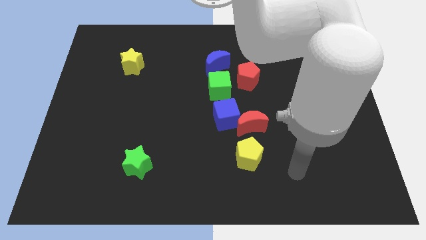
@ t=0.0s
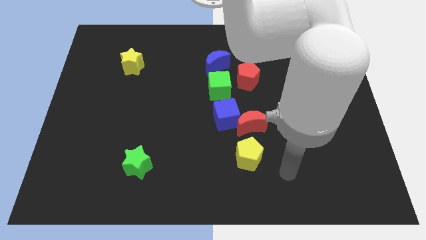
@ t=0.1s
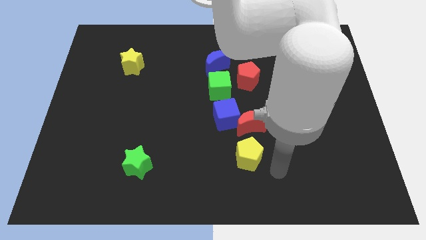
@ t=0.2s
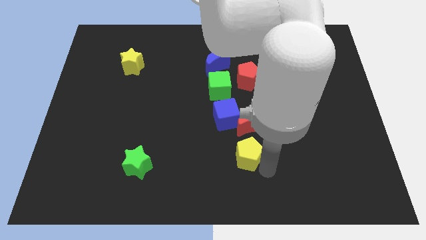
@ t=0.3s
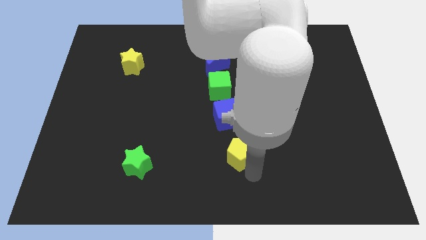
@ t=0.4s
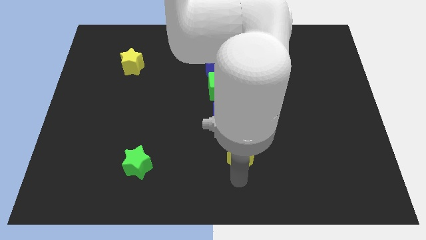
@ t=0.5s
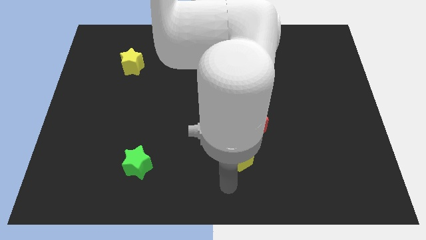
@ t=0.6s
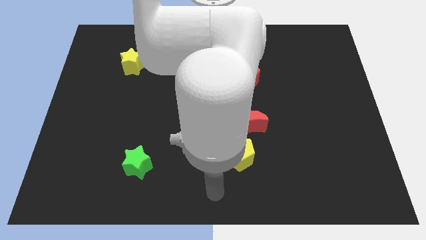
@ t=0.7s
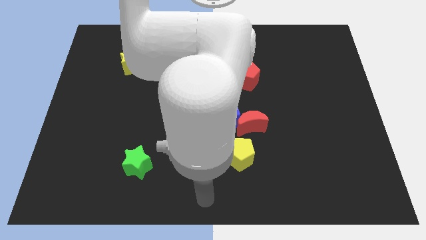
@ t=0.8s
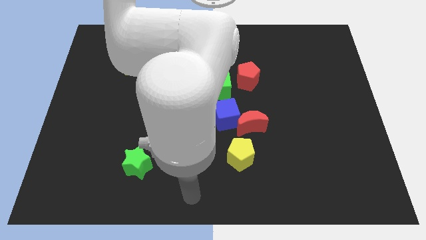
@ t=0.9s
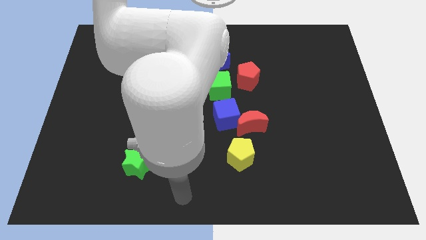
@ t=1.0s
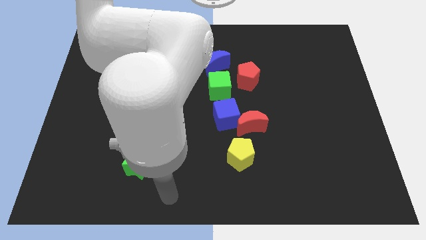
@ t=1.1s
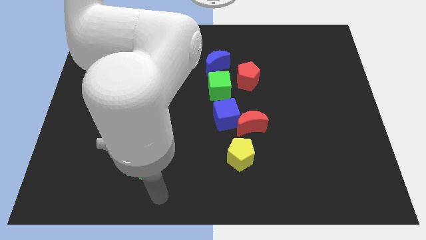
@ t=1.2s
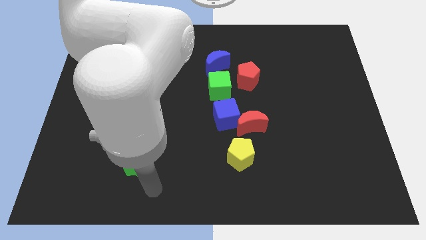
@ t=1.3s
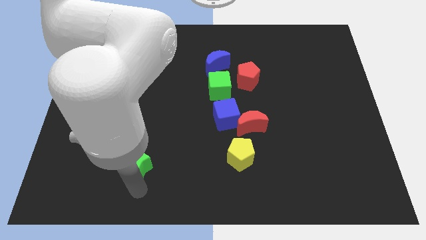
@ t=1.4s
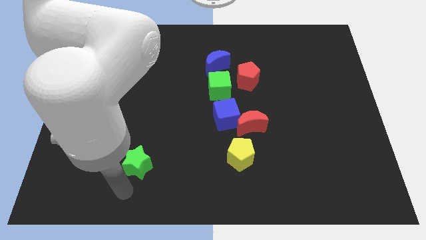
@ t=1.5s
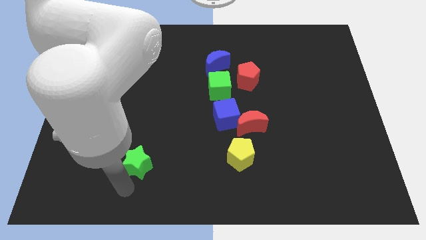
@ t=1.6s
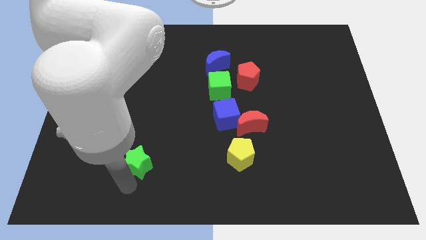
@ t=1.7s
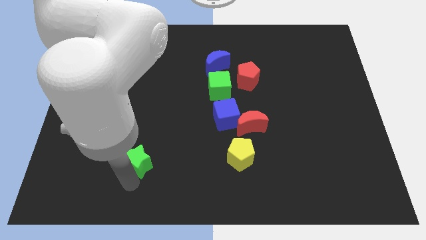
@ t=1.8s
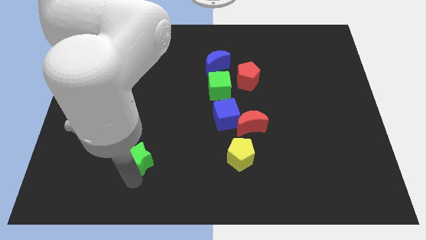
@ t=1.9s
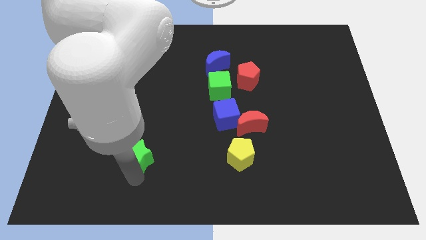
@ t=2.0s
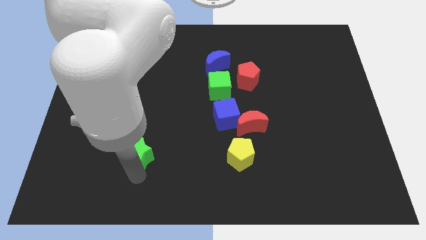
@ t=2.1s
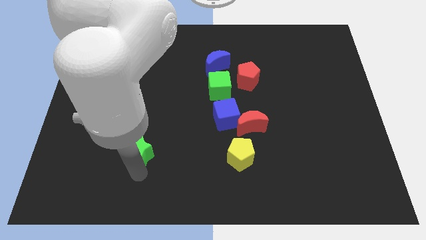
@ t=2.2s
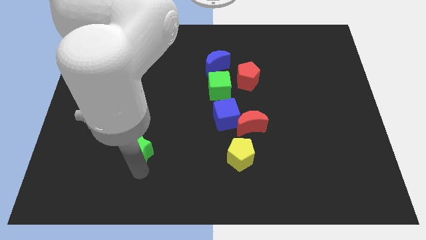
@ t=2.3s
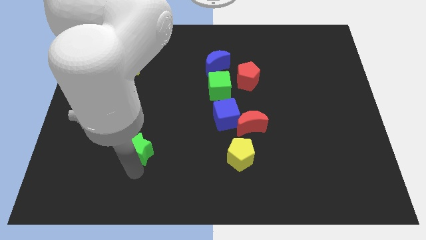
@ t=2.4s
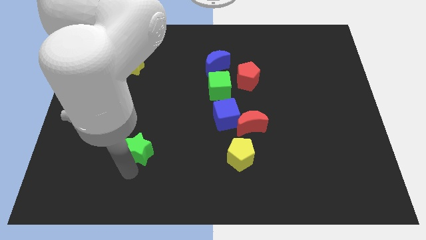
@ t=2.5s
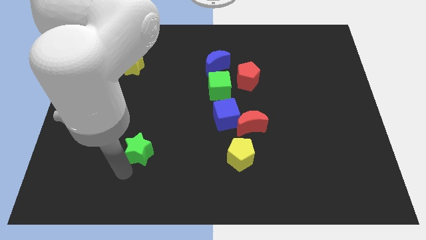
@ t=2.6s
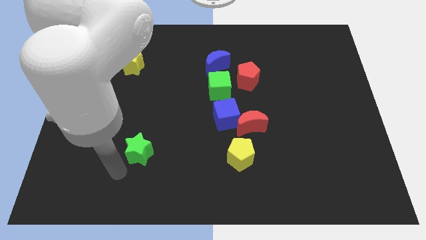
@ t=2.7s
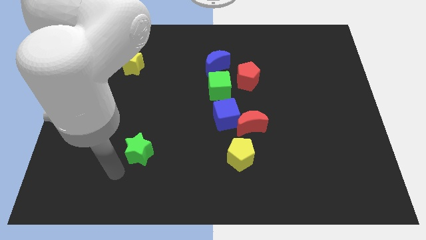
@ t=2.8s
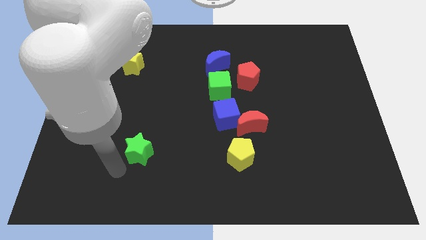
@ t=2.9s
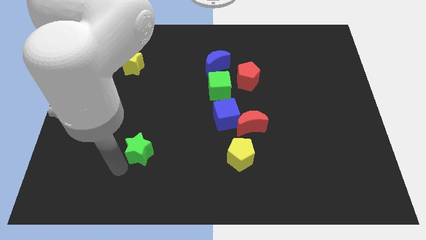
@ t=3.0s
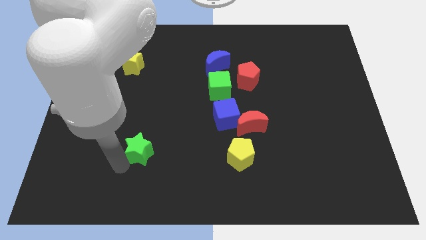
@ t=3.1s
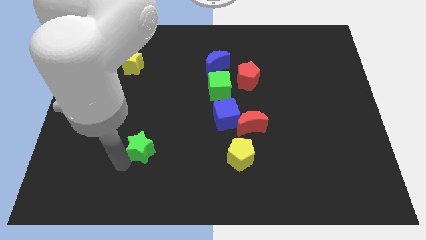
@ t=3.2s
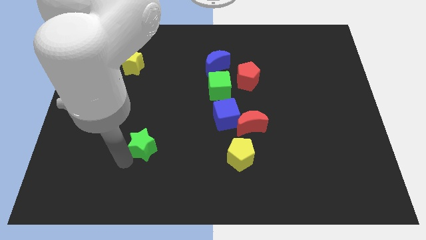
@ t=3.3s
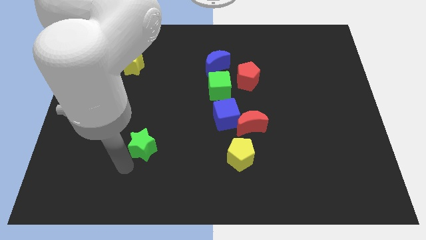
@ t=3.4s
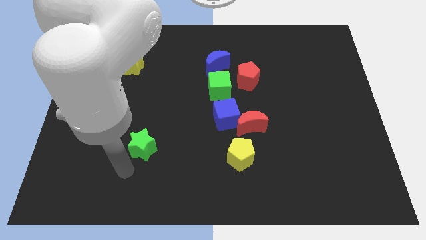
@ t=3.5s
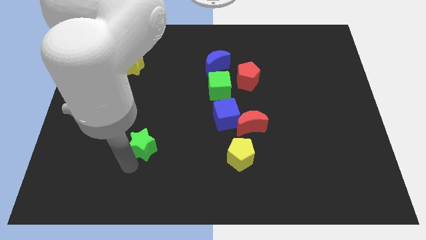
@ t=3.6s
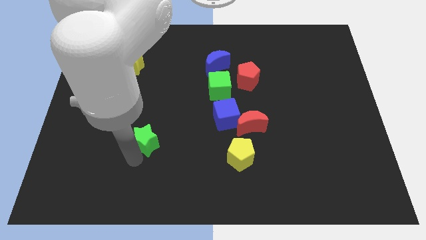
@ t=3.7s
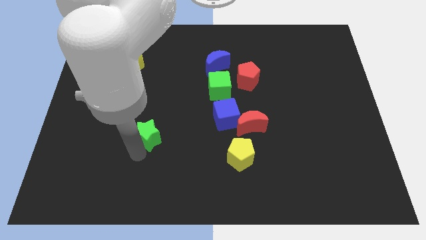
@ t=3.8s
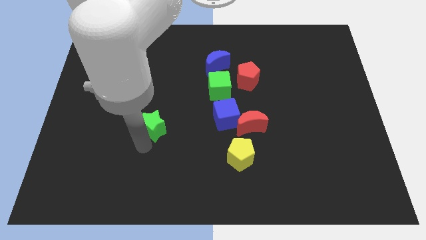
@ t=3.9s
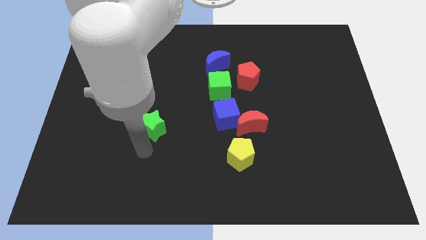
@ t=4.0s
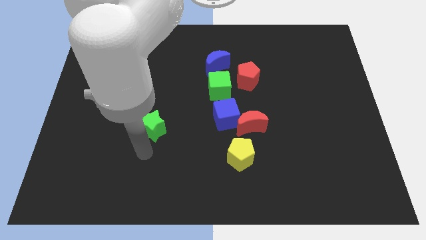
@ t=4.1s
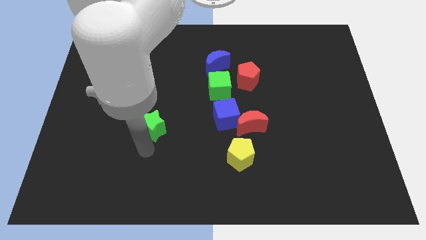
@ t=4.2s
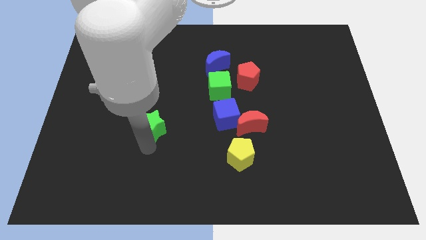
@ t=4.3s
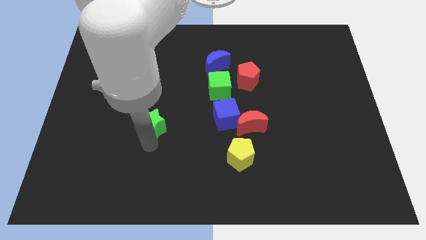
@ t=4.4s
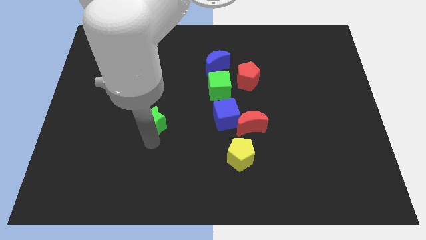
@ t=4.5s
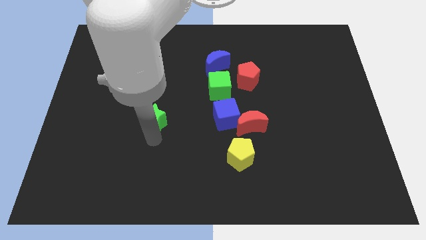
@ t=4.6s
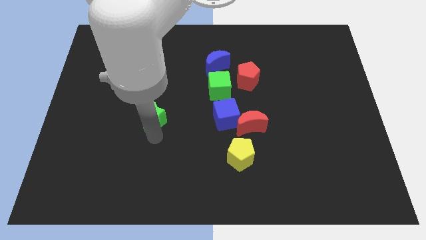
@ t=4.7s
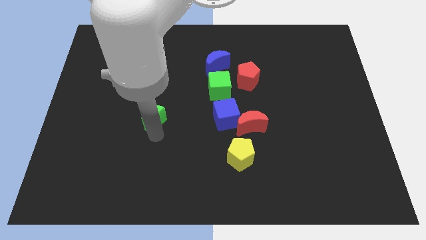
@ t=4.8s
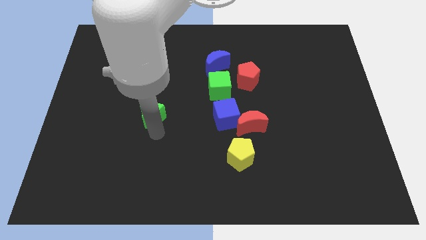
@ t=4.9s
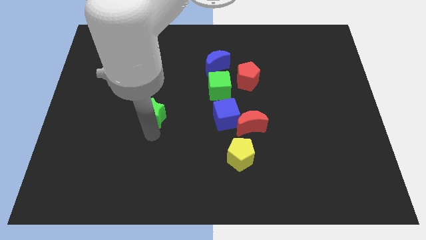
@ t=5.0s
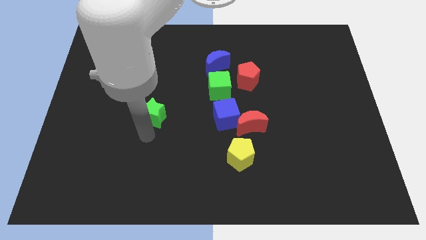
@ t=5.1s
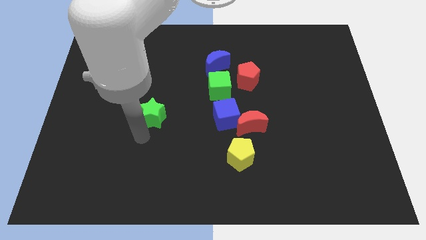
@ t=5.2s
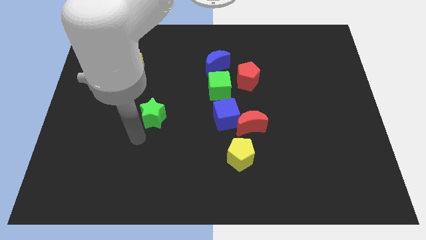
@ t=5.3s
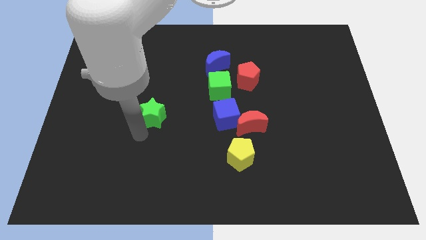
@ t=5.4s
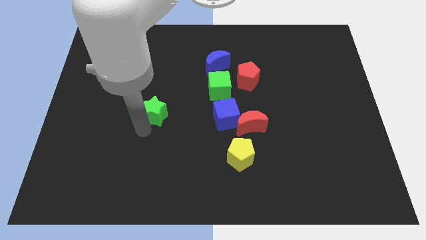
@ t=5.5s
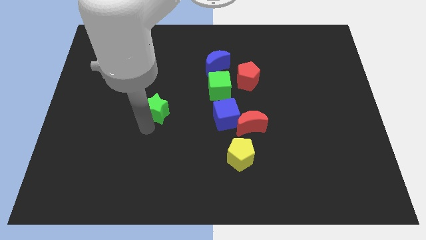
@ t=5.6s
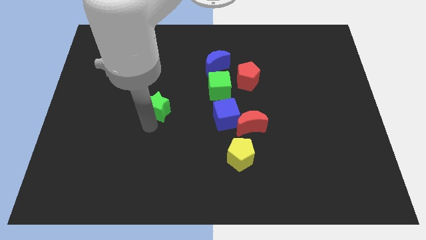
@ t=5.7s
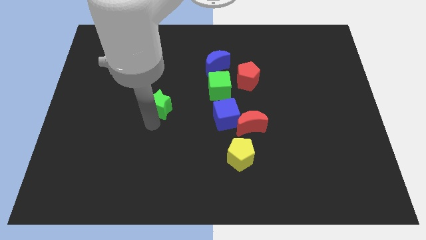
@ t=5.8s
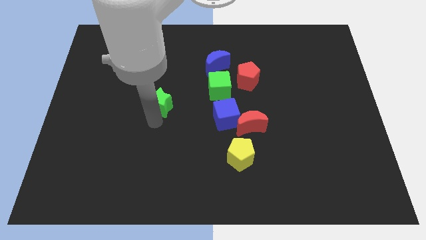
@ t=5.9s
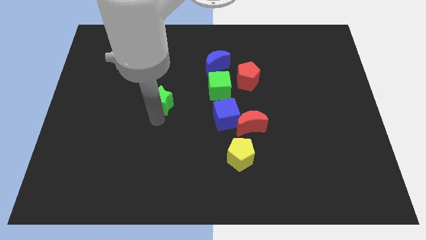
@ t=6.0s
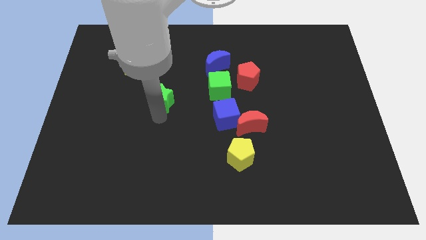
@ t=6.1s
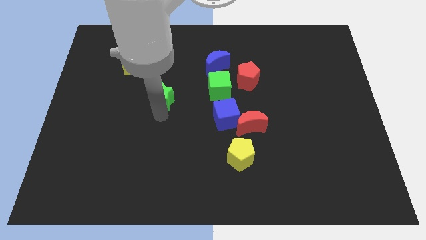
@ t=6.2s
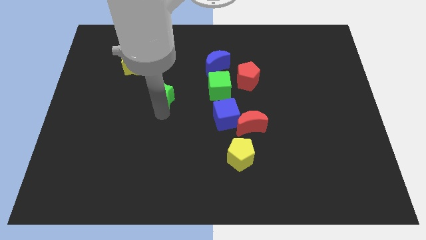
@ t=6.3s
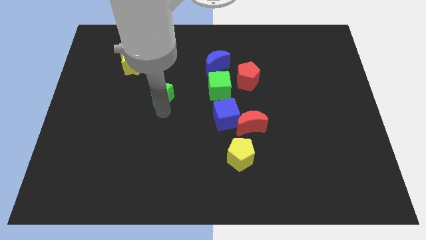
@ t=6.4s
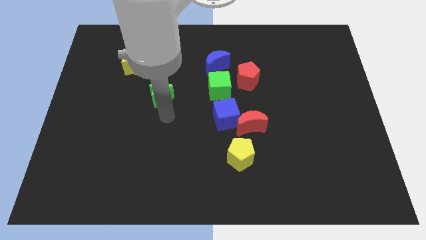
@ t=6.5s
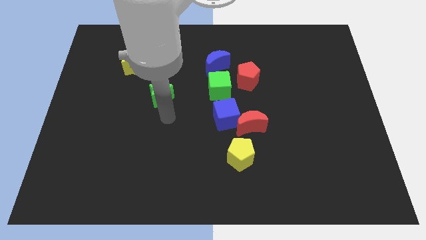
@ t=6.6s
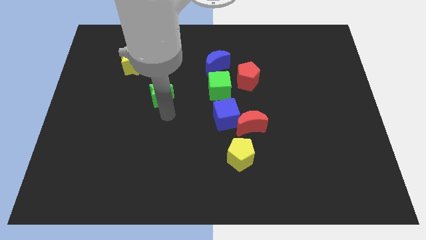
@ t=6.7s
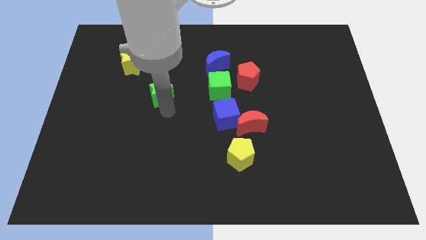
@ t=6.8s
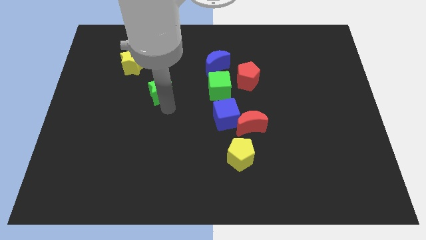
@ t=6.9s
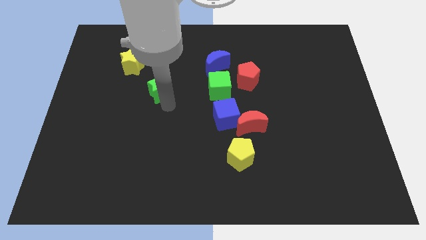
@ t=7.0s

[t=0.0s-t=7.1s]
slide the green star upwards

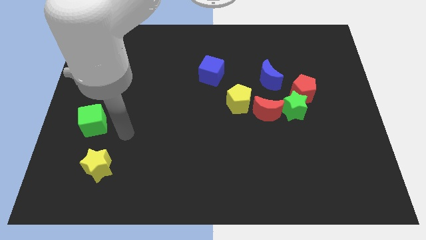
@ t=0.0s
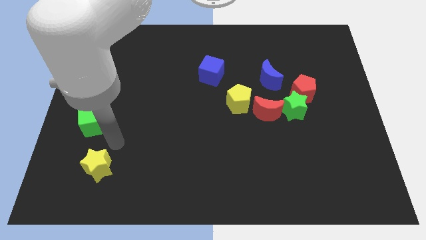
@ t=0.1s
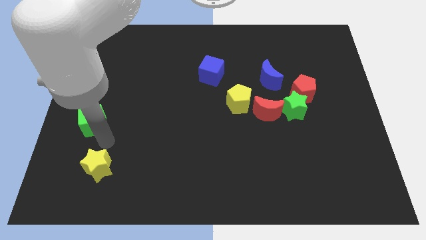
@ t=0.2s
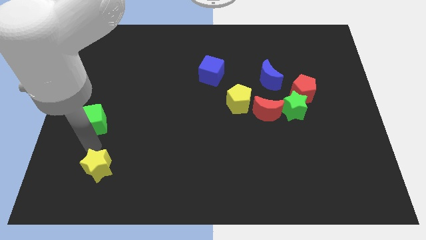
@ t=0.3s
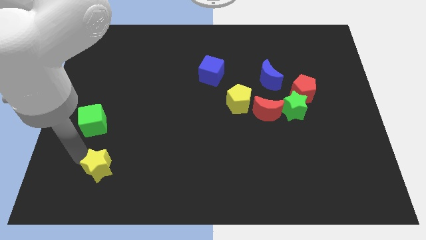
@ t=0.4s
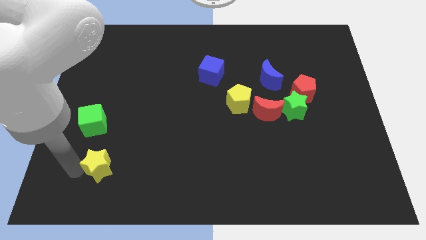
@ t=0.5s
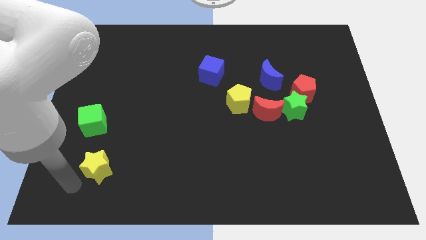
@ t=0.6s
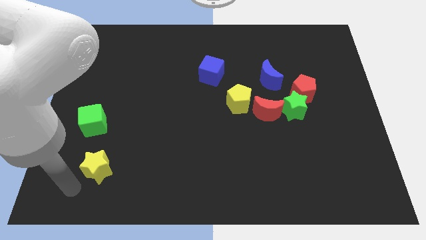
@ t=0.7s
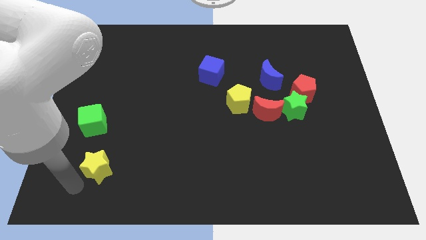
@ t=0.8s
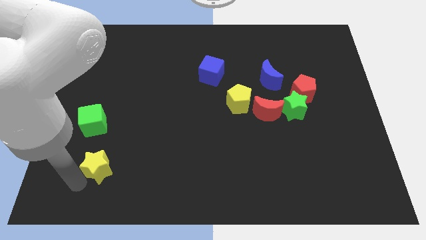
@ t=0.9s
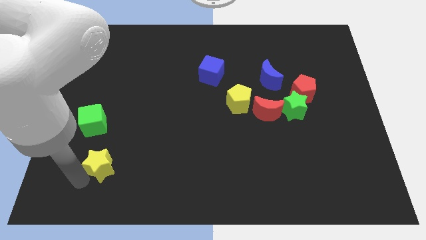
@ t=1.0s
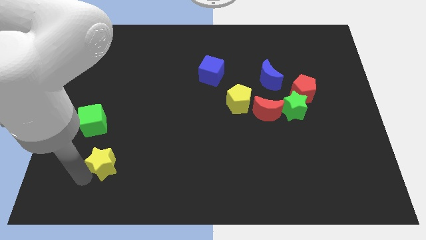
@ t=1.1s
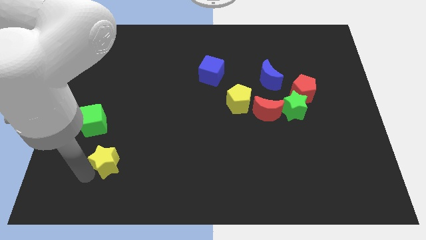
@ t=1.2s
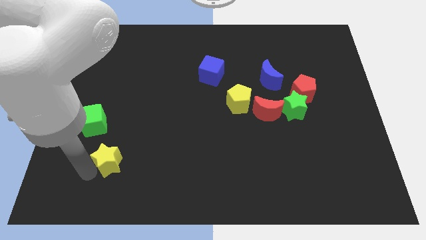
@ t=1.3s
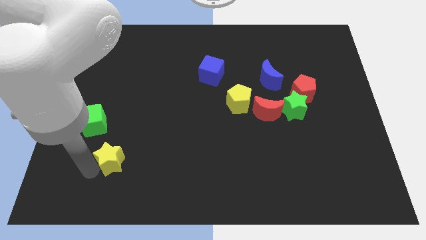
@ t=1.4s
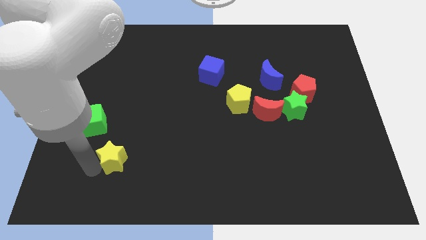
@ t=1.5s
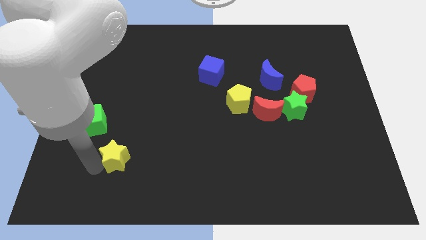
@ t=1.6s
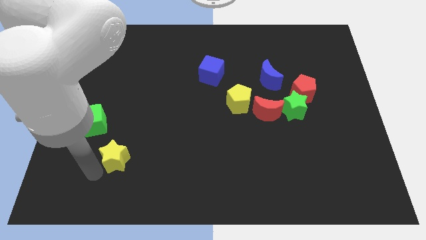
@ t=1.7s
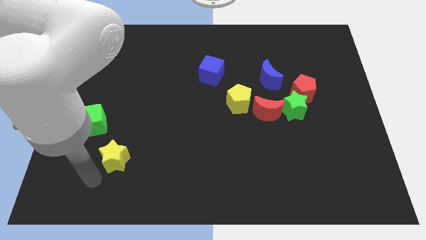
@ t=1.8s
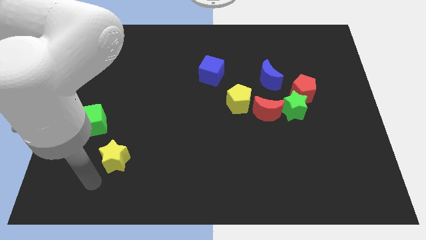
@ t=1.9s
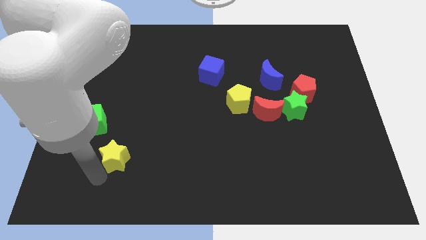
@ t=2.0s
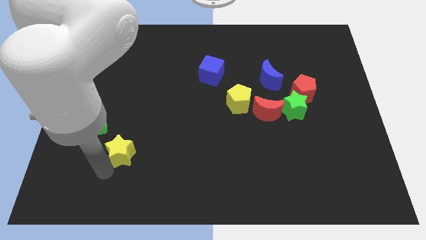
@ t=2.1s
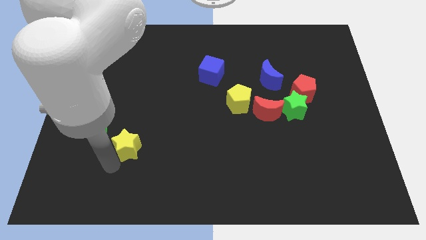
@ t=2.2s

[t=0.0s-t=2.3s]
slightly slide the yellow star upwards and right diagonally
